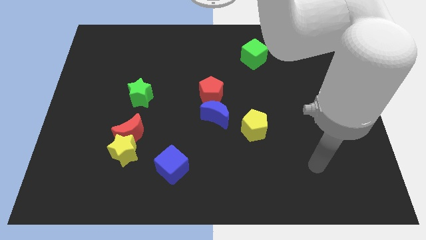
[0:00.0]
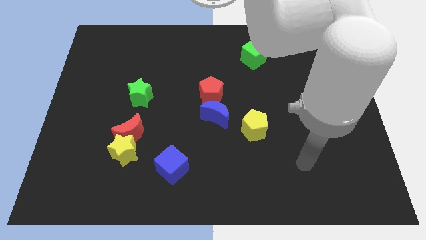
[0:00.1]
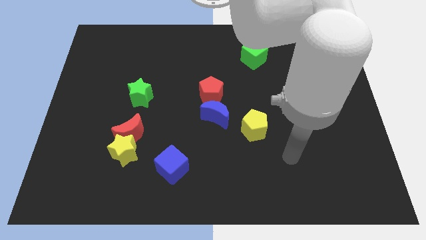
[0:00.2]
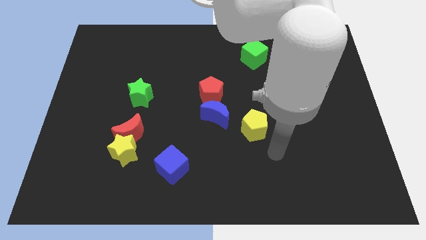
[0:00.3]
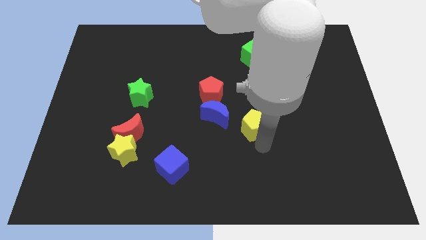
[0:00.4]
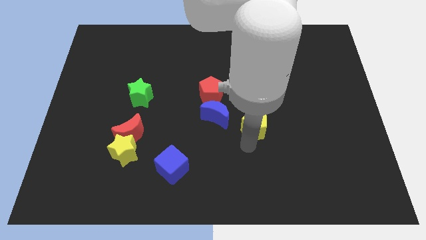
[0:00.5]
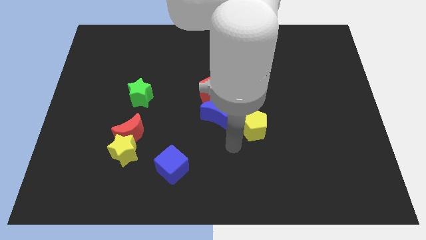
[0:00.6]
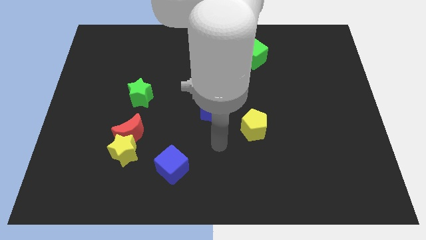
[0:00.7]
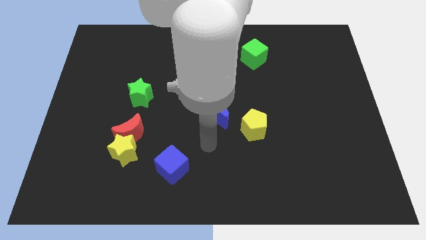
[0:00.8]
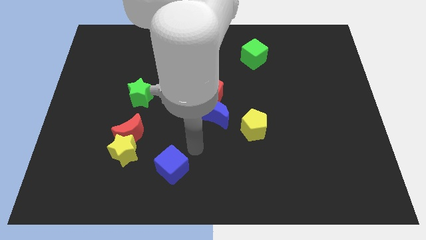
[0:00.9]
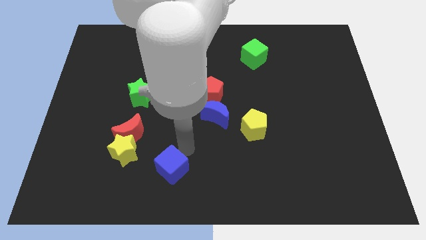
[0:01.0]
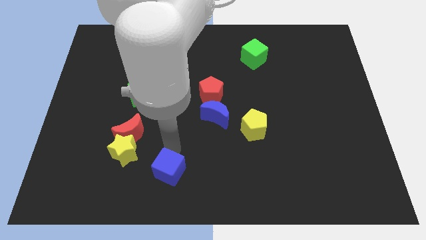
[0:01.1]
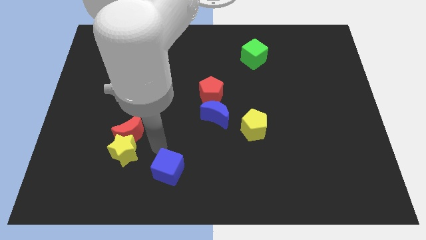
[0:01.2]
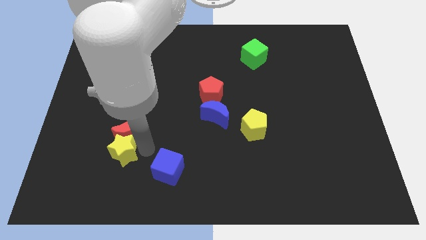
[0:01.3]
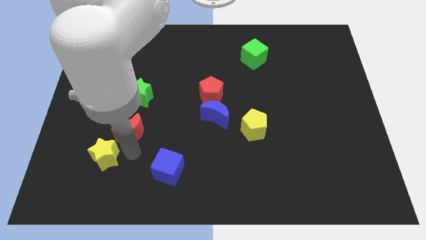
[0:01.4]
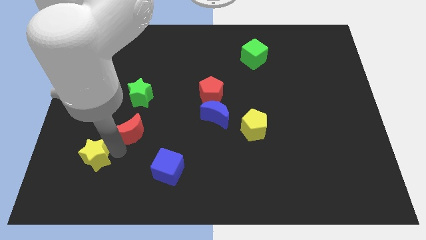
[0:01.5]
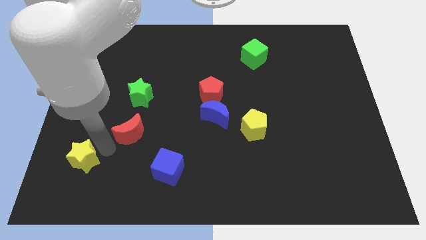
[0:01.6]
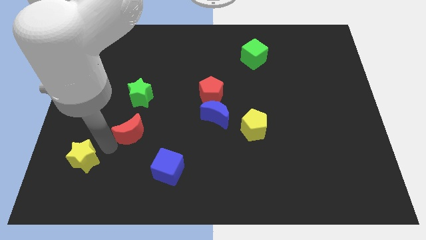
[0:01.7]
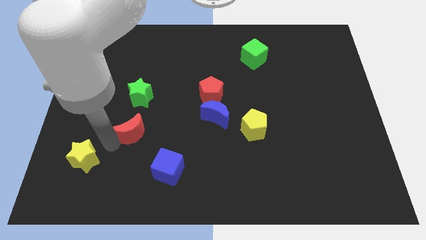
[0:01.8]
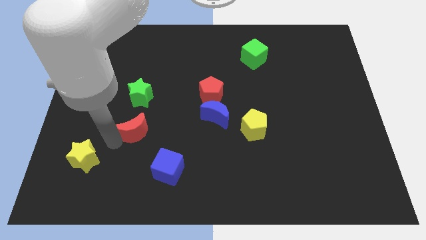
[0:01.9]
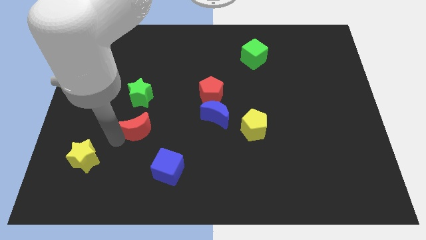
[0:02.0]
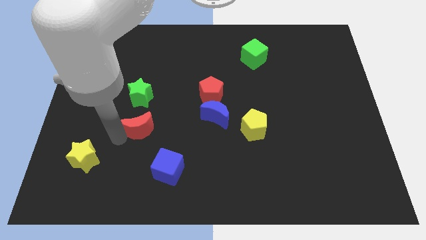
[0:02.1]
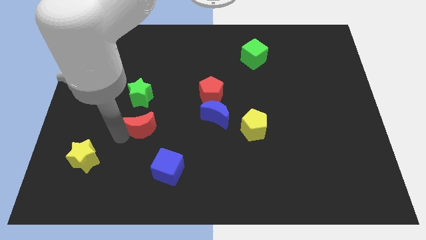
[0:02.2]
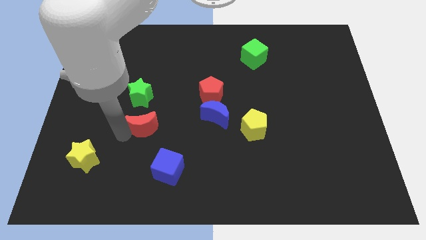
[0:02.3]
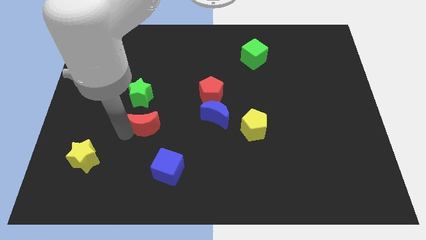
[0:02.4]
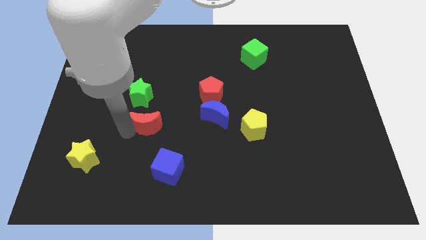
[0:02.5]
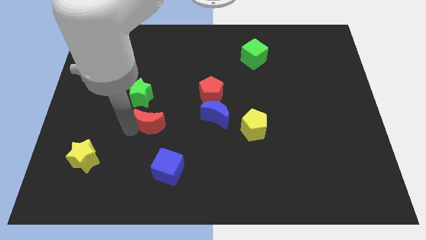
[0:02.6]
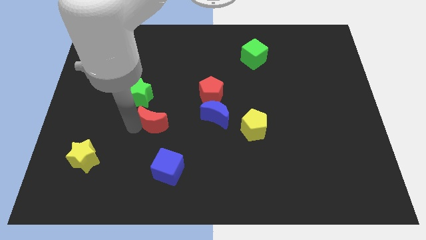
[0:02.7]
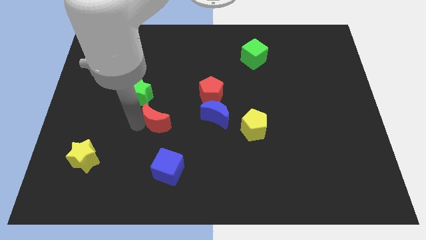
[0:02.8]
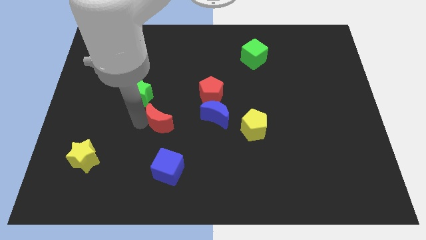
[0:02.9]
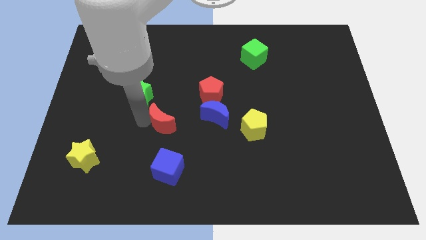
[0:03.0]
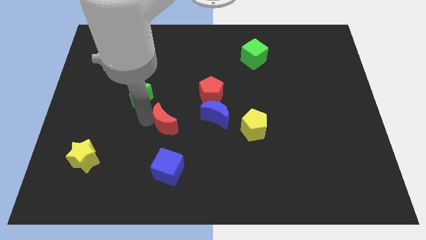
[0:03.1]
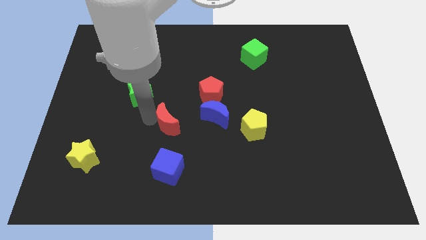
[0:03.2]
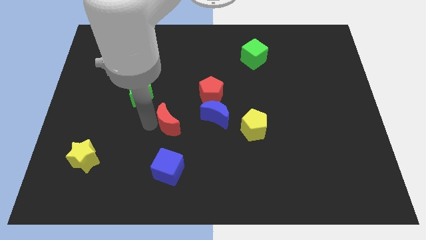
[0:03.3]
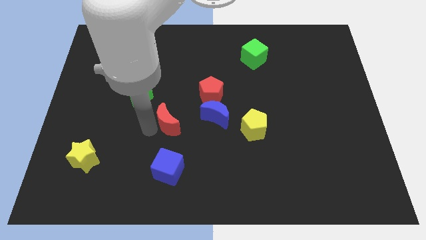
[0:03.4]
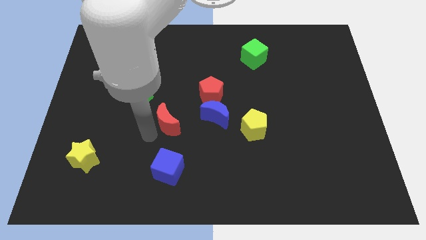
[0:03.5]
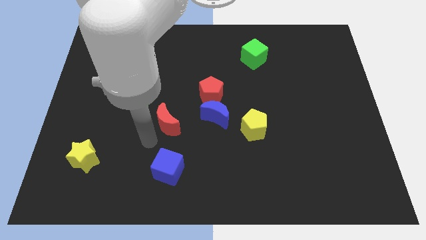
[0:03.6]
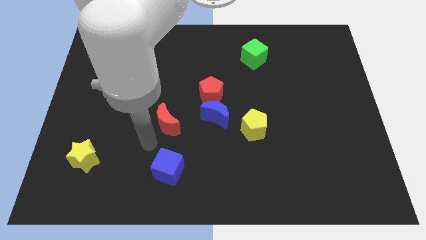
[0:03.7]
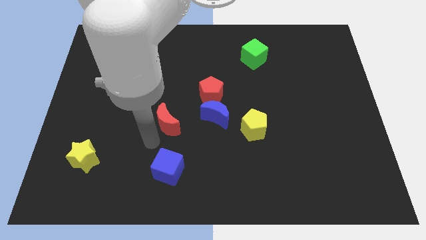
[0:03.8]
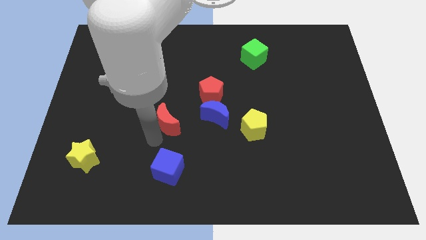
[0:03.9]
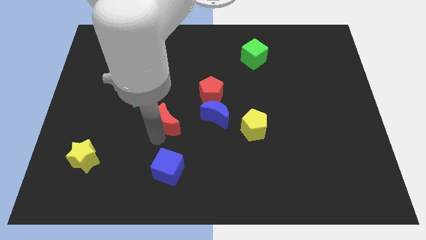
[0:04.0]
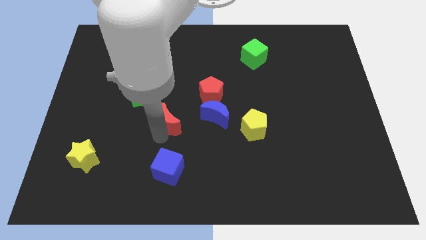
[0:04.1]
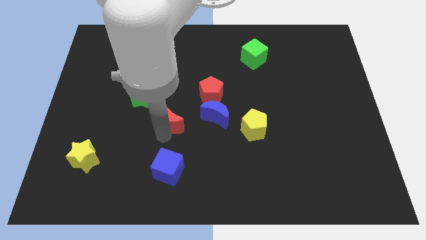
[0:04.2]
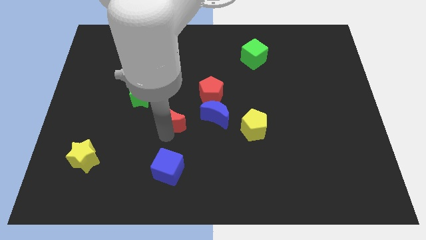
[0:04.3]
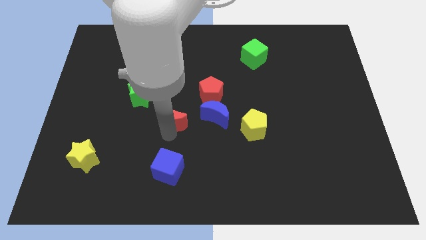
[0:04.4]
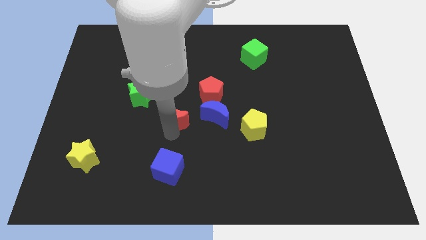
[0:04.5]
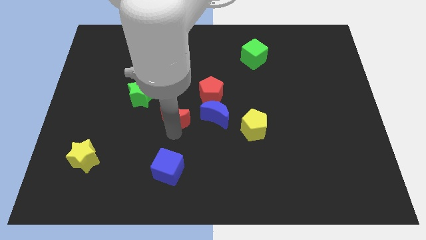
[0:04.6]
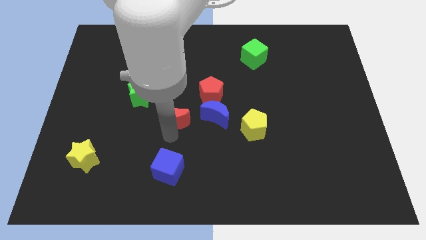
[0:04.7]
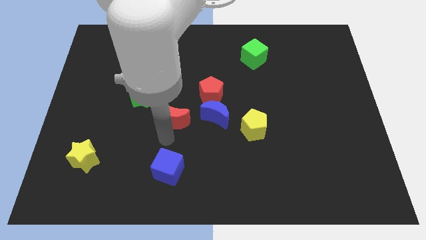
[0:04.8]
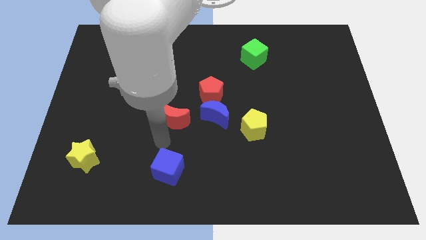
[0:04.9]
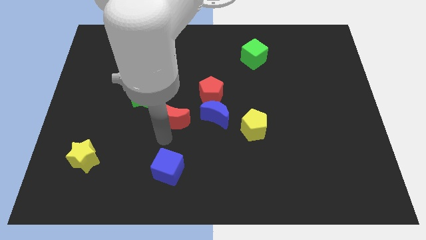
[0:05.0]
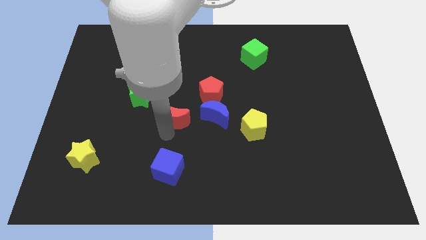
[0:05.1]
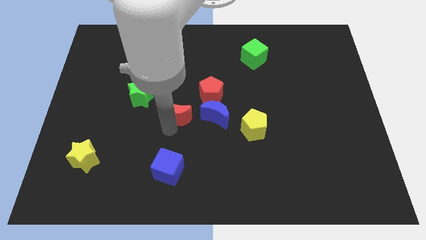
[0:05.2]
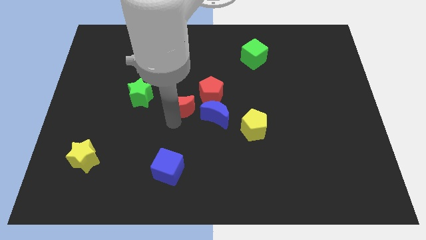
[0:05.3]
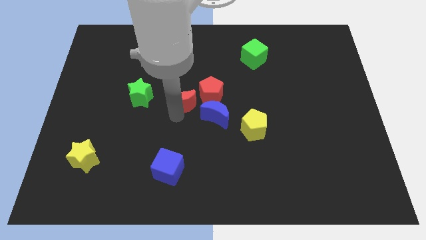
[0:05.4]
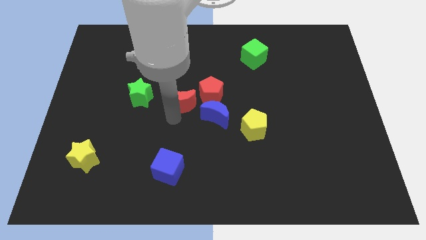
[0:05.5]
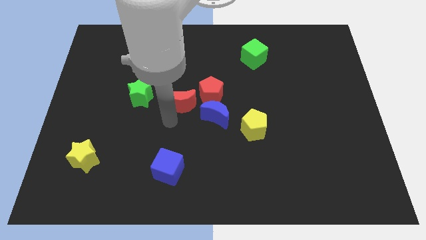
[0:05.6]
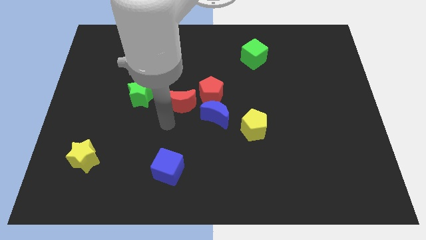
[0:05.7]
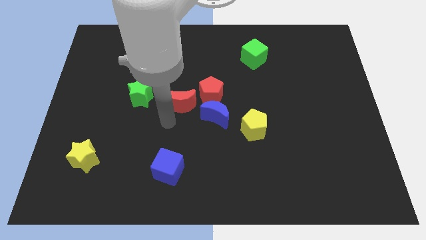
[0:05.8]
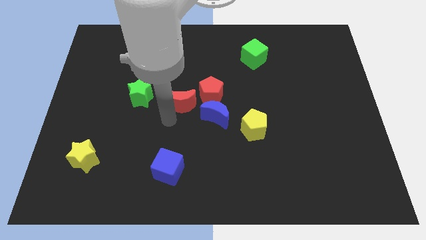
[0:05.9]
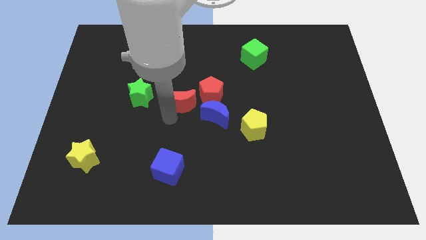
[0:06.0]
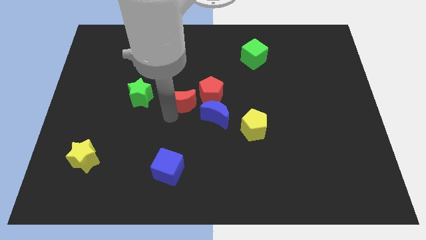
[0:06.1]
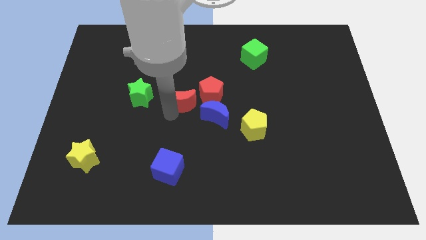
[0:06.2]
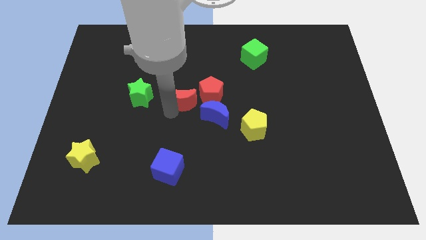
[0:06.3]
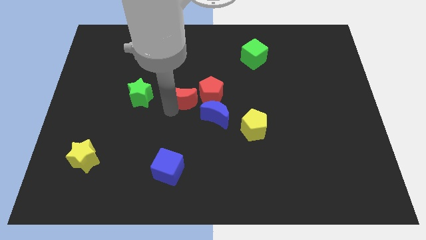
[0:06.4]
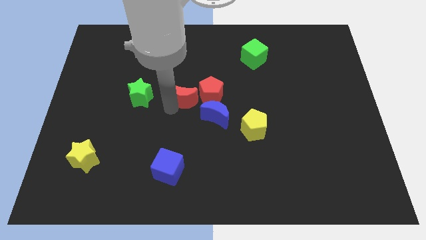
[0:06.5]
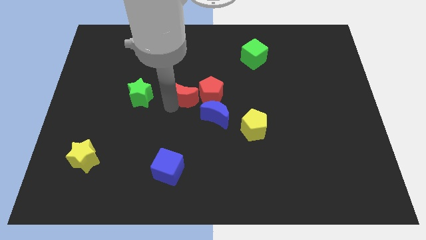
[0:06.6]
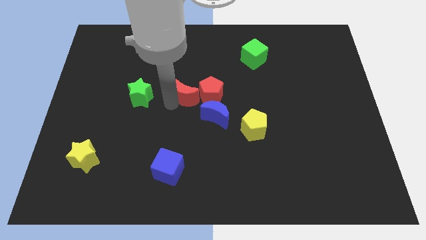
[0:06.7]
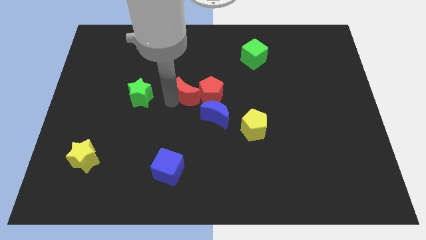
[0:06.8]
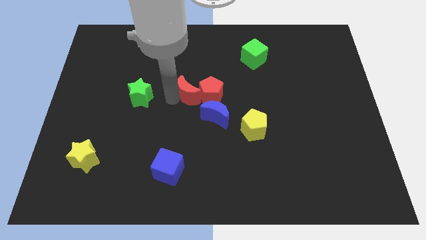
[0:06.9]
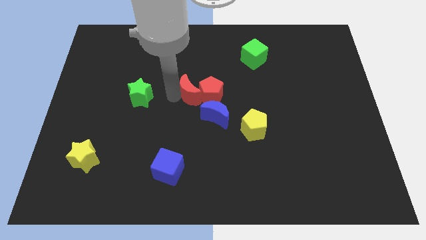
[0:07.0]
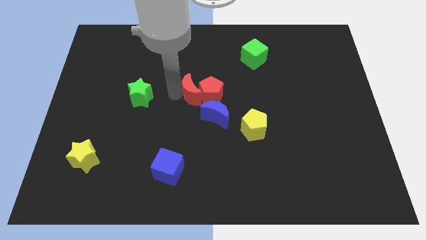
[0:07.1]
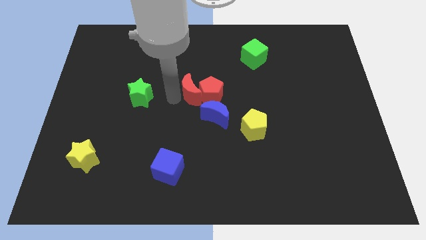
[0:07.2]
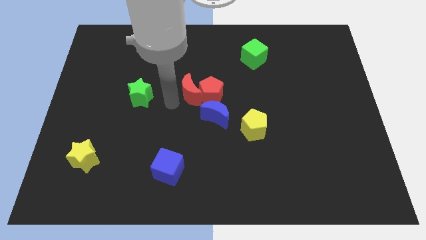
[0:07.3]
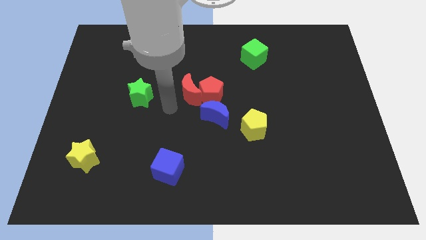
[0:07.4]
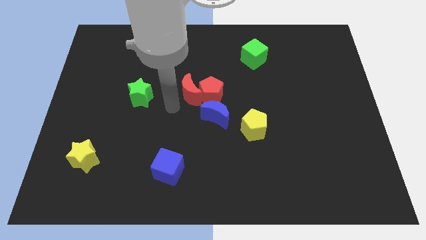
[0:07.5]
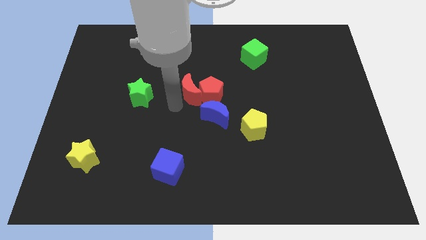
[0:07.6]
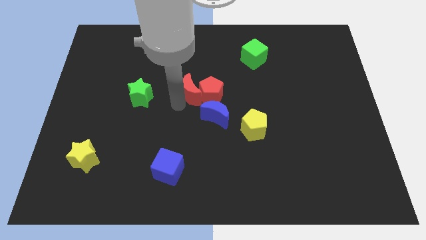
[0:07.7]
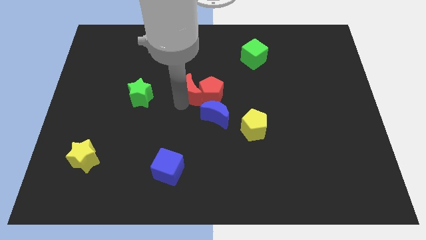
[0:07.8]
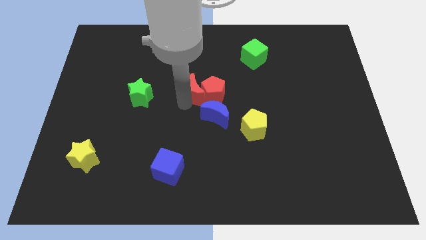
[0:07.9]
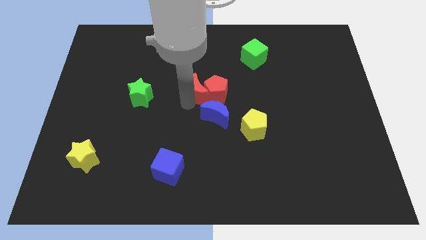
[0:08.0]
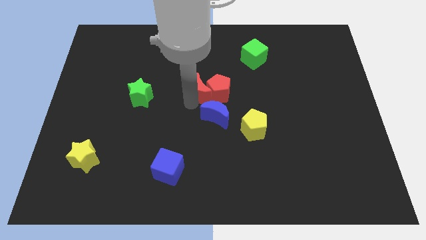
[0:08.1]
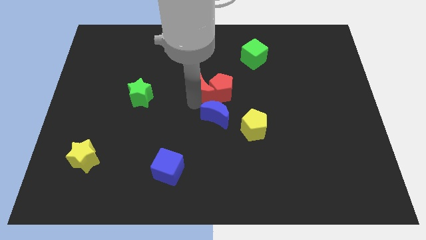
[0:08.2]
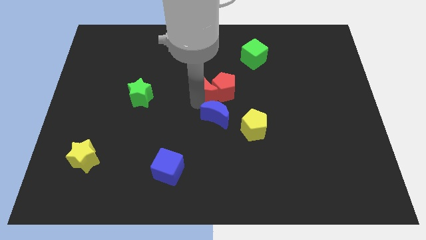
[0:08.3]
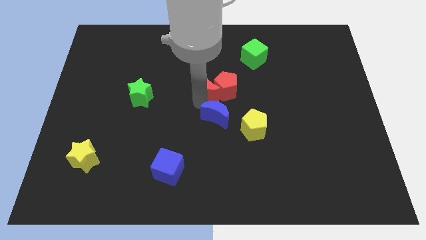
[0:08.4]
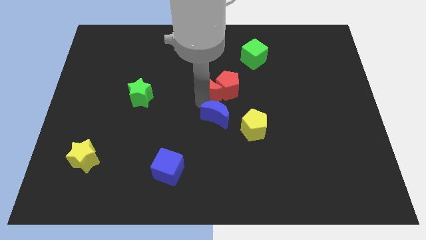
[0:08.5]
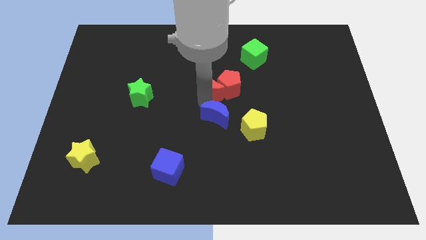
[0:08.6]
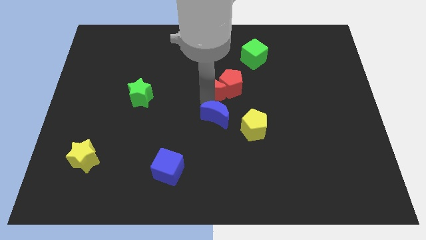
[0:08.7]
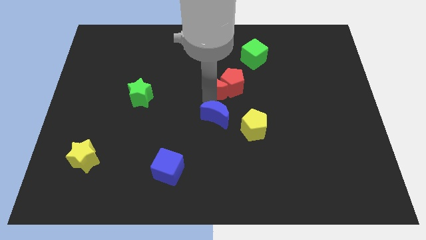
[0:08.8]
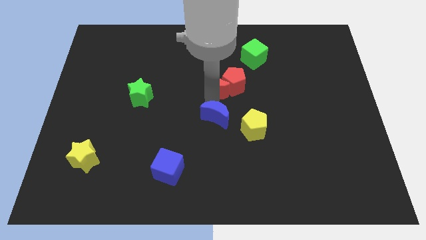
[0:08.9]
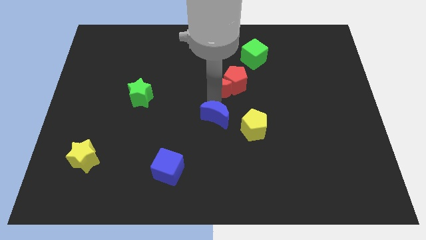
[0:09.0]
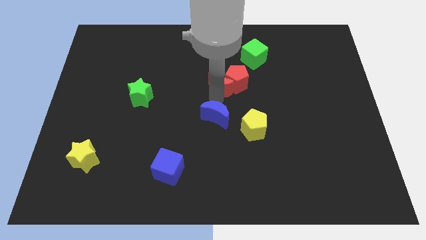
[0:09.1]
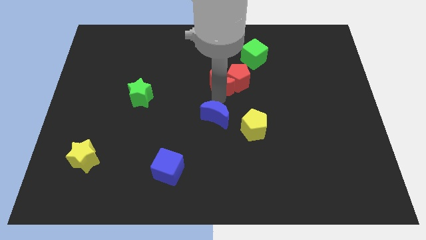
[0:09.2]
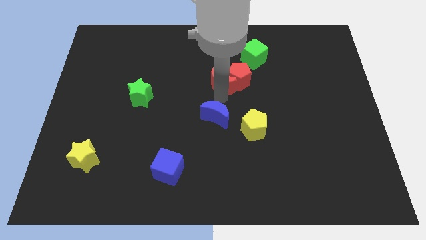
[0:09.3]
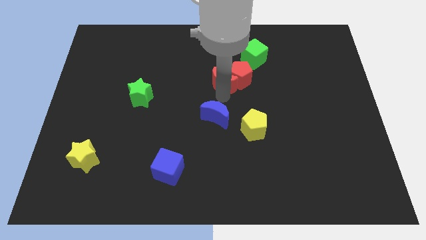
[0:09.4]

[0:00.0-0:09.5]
push the red moon diagonally down and to the left of the green cube
